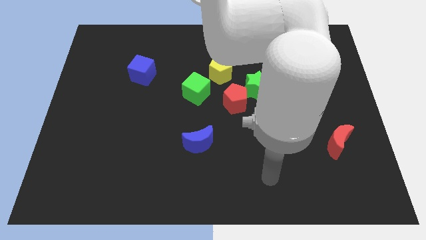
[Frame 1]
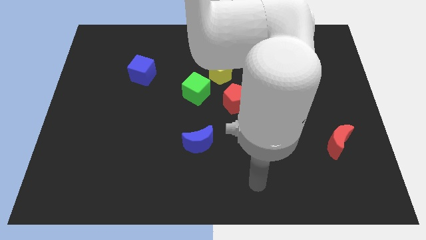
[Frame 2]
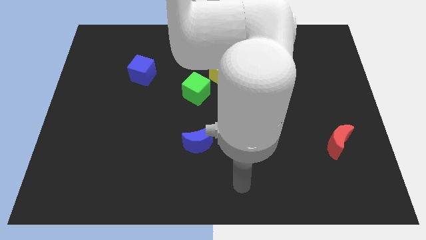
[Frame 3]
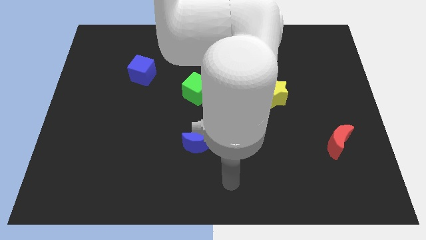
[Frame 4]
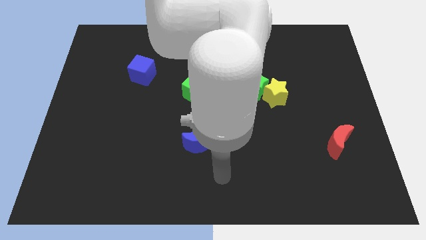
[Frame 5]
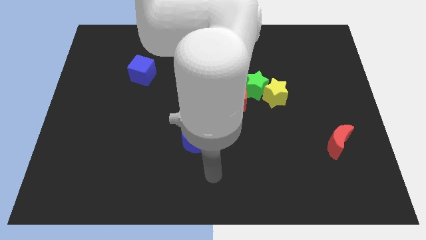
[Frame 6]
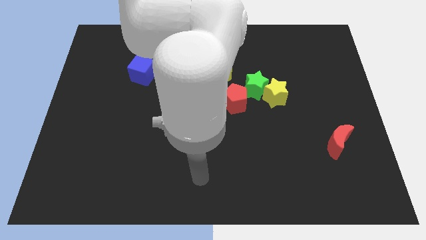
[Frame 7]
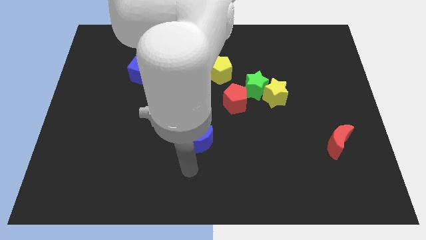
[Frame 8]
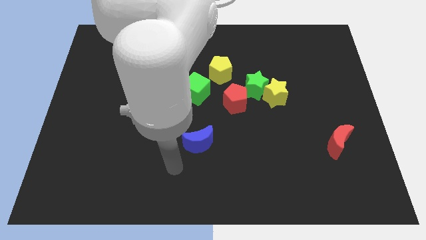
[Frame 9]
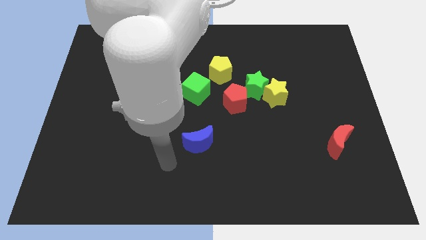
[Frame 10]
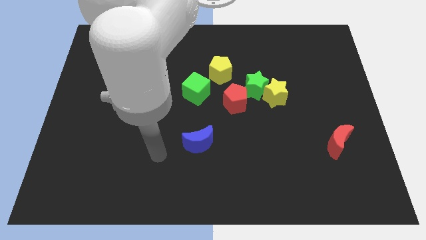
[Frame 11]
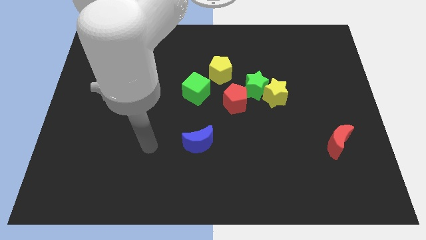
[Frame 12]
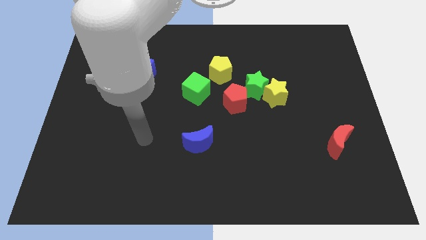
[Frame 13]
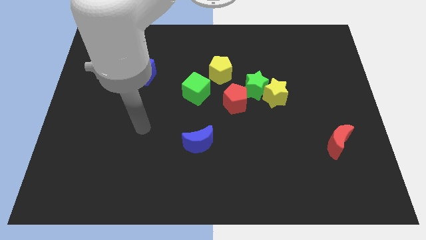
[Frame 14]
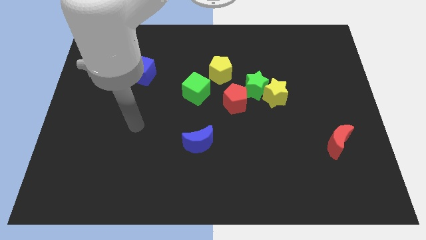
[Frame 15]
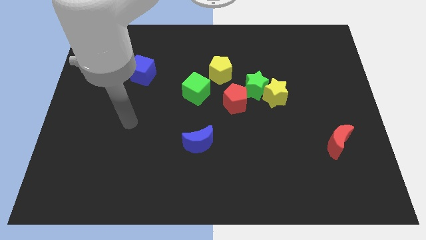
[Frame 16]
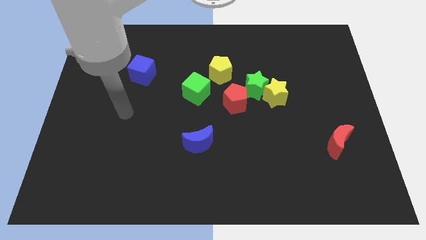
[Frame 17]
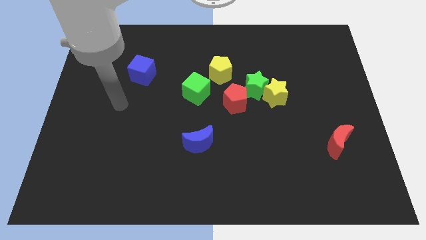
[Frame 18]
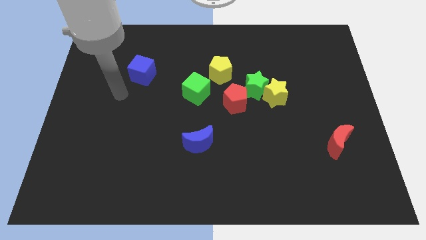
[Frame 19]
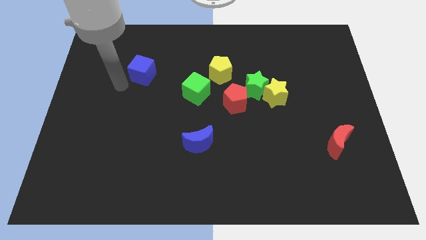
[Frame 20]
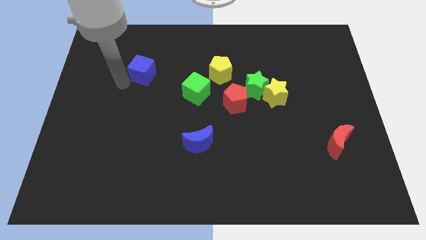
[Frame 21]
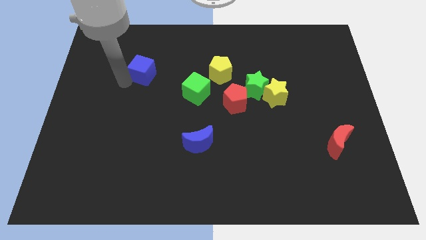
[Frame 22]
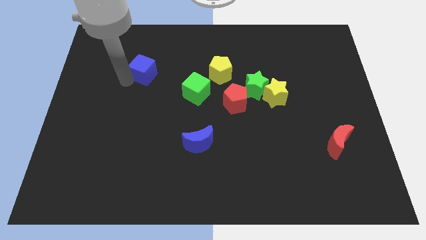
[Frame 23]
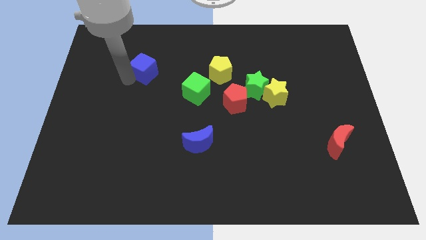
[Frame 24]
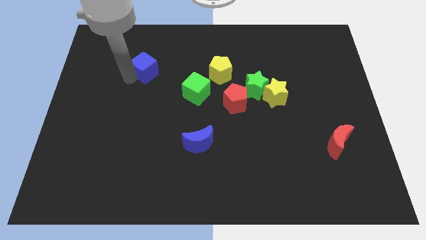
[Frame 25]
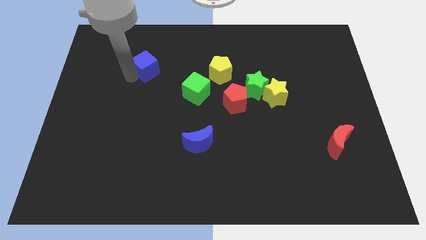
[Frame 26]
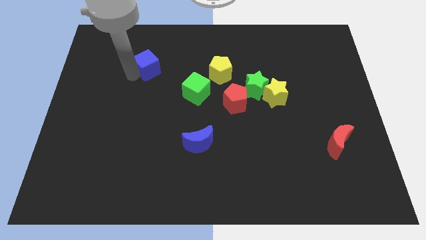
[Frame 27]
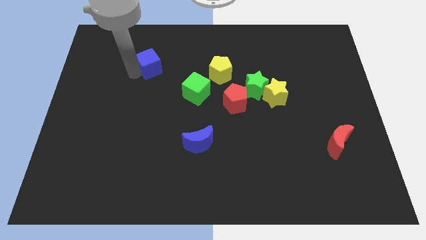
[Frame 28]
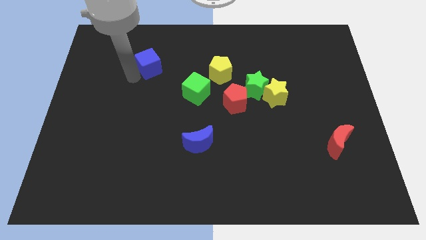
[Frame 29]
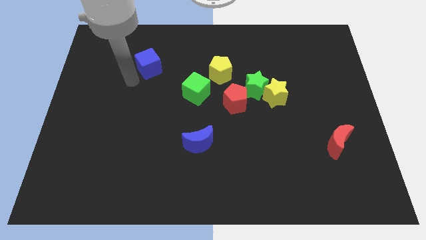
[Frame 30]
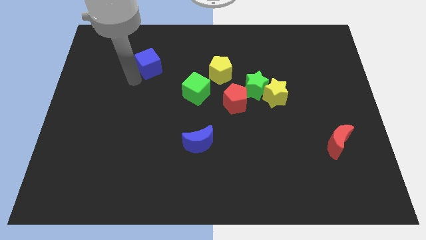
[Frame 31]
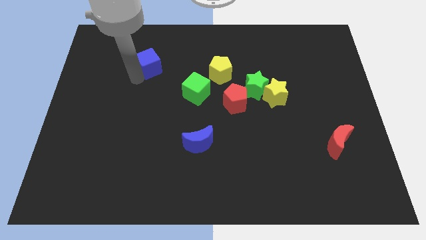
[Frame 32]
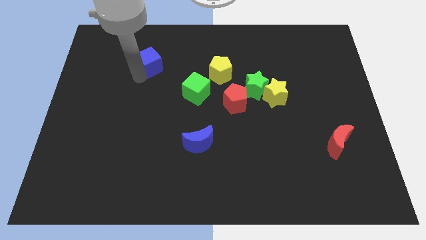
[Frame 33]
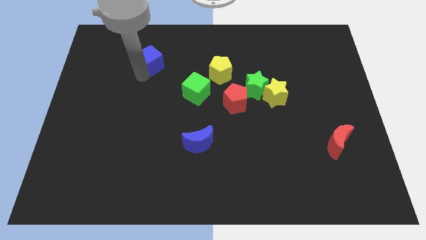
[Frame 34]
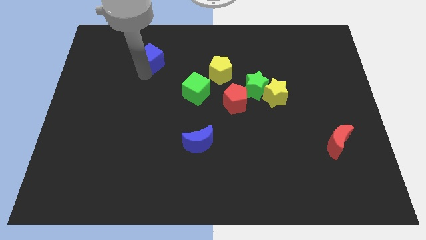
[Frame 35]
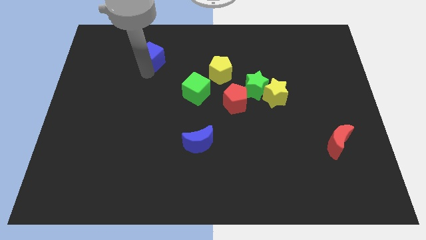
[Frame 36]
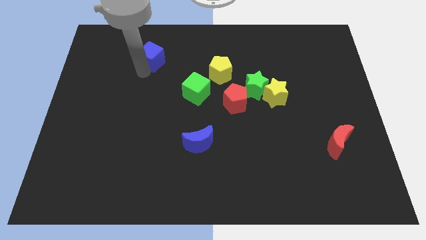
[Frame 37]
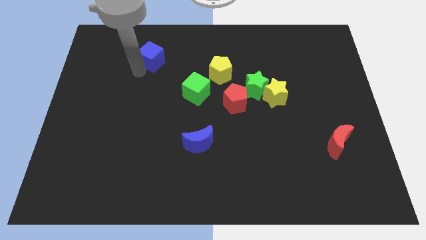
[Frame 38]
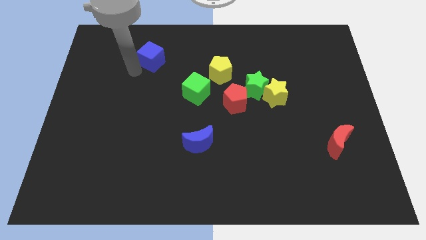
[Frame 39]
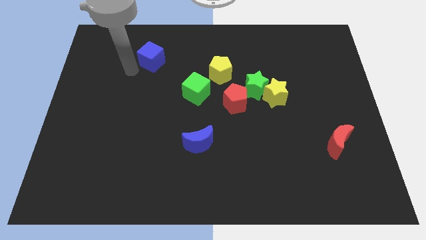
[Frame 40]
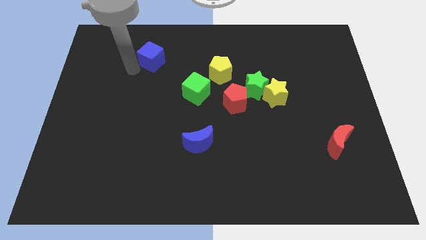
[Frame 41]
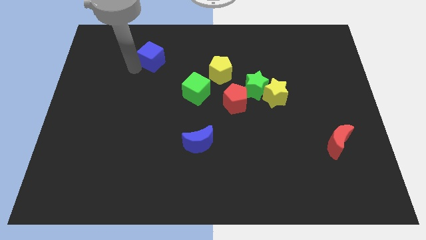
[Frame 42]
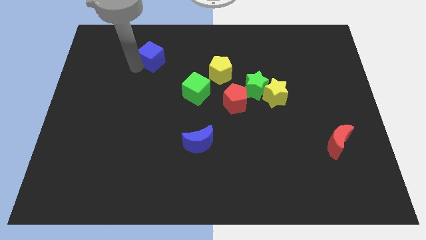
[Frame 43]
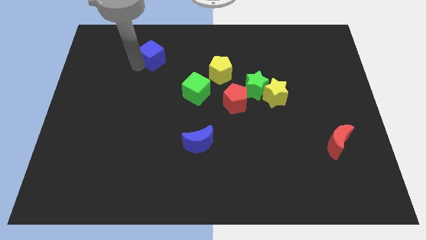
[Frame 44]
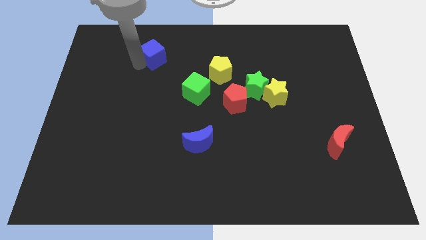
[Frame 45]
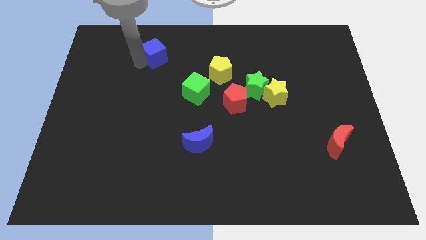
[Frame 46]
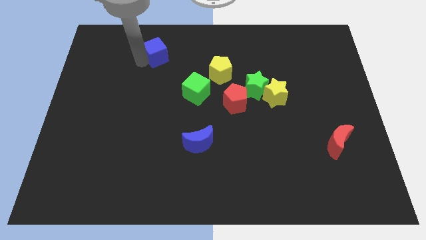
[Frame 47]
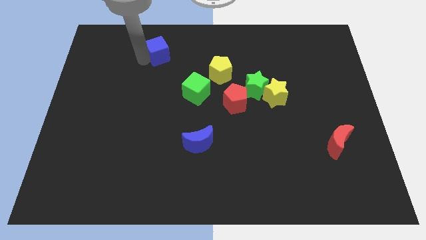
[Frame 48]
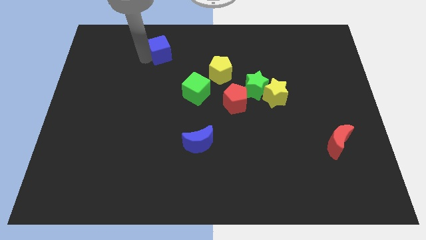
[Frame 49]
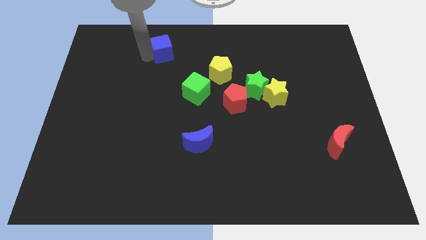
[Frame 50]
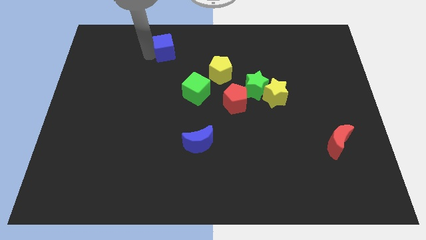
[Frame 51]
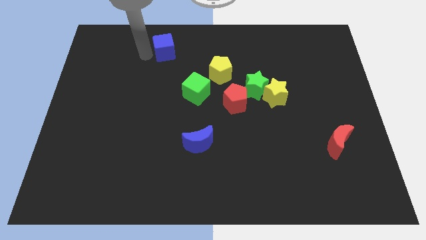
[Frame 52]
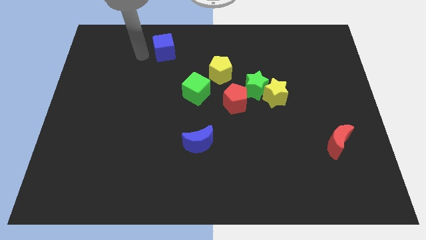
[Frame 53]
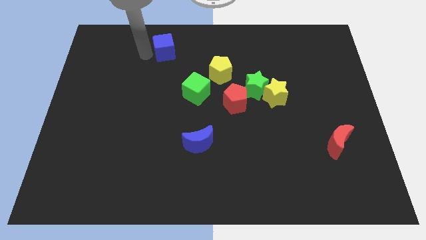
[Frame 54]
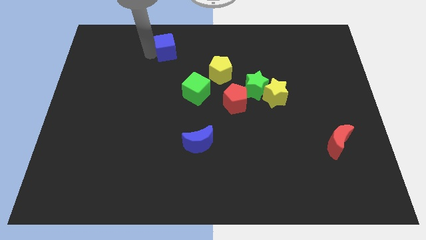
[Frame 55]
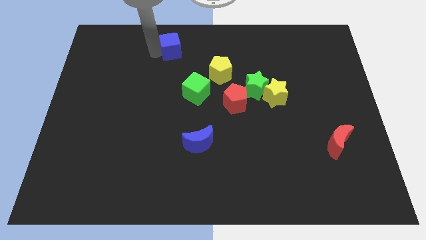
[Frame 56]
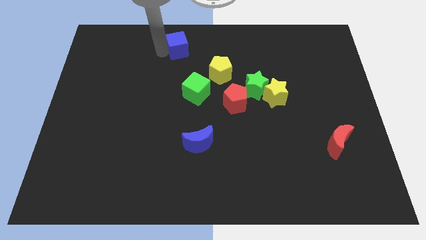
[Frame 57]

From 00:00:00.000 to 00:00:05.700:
slide the blue cube to the top
